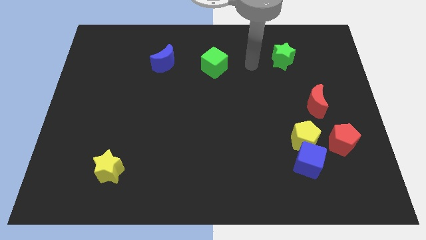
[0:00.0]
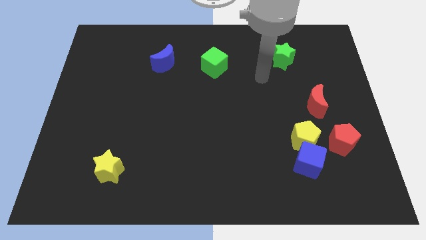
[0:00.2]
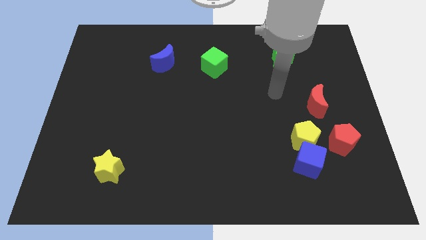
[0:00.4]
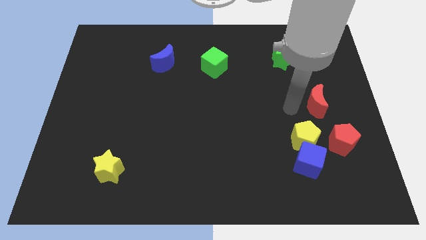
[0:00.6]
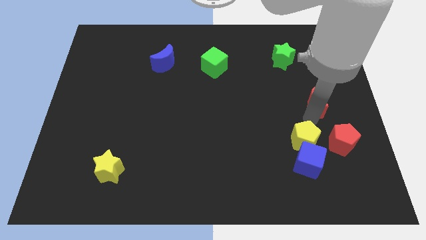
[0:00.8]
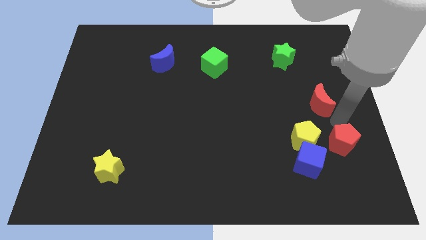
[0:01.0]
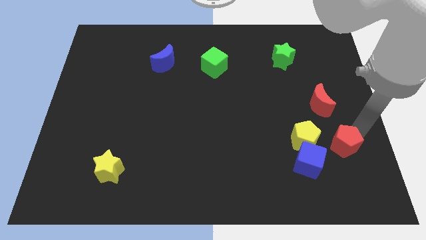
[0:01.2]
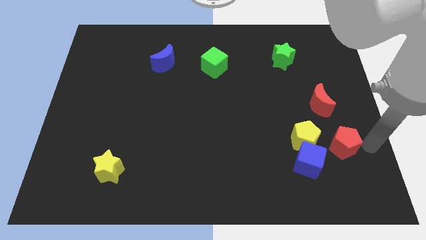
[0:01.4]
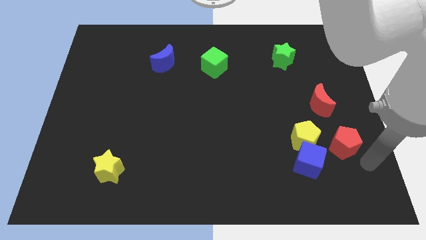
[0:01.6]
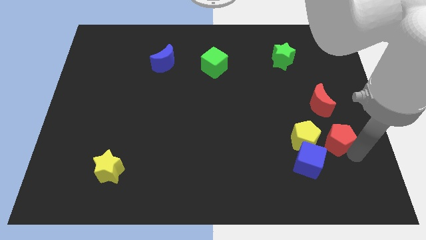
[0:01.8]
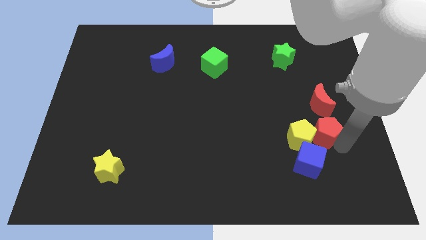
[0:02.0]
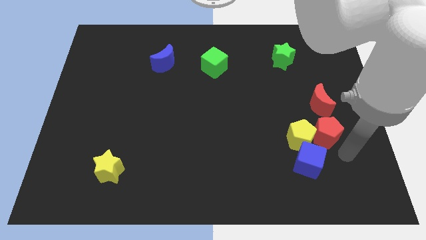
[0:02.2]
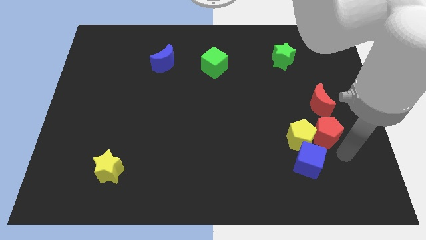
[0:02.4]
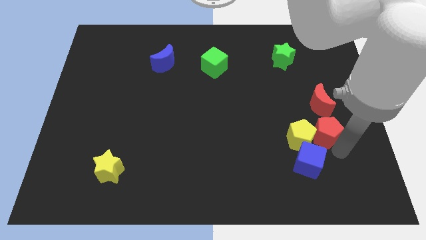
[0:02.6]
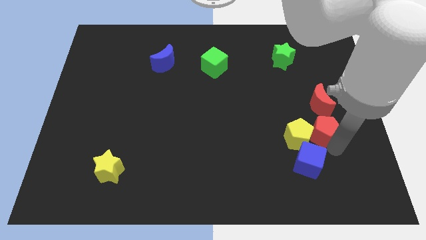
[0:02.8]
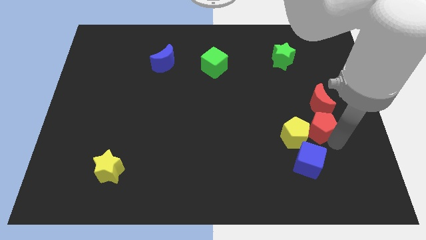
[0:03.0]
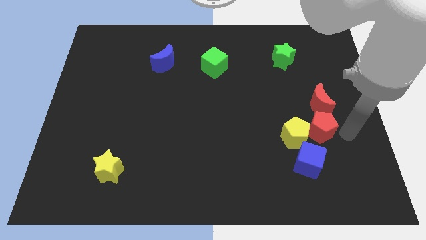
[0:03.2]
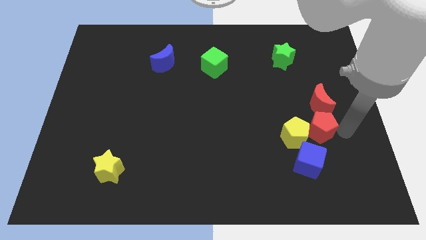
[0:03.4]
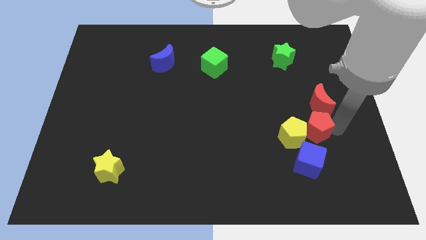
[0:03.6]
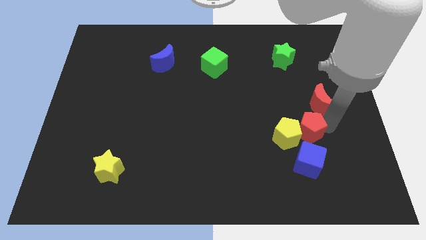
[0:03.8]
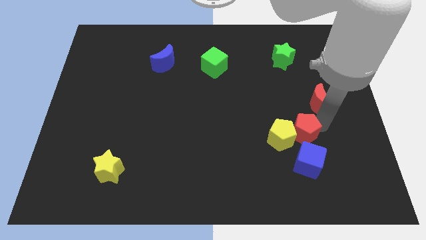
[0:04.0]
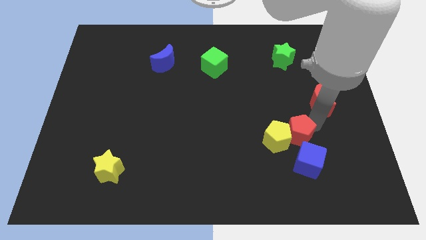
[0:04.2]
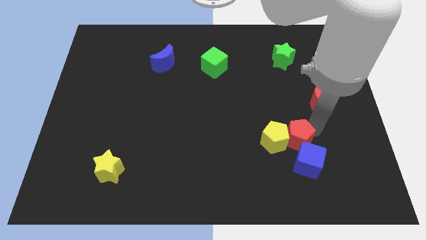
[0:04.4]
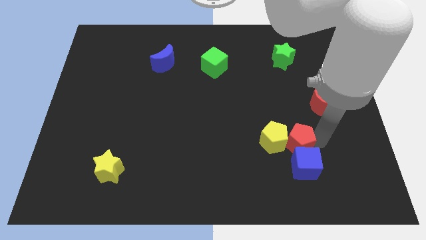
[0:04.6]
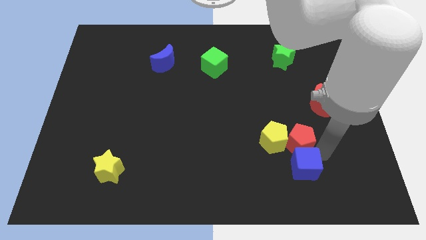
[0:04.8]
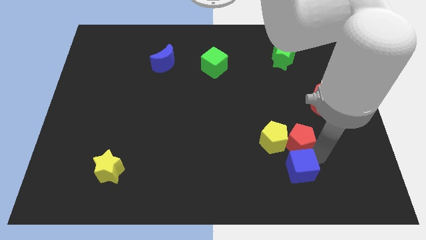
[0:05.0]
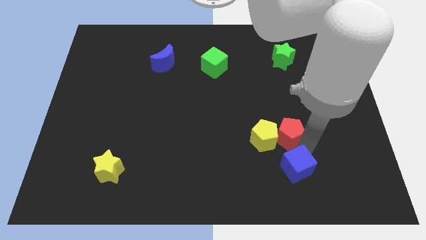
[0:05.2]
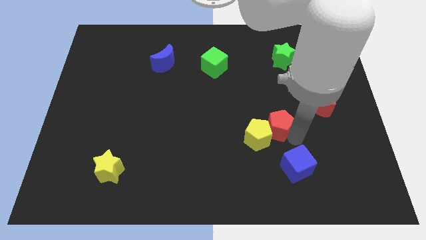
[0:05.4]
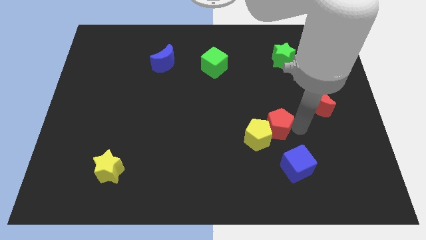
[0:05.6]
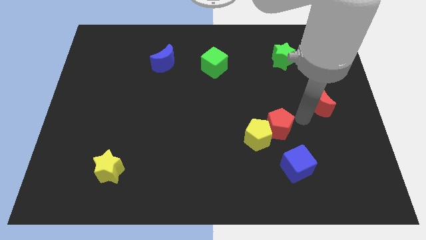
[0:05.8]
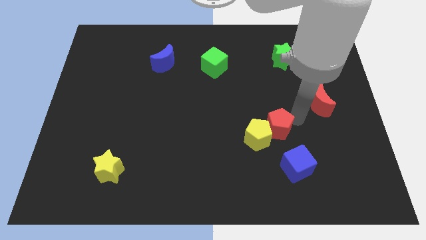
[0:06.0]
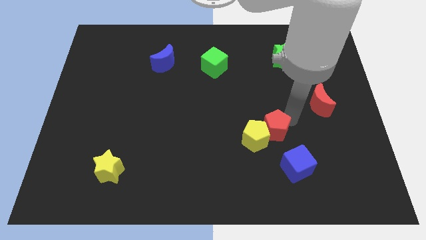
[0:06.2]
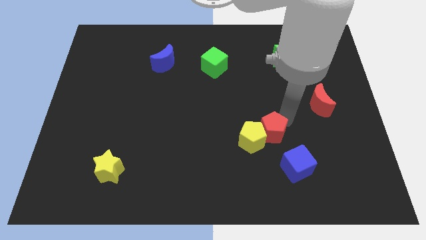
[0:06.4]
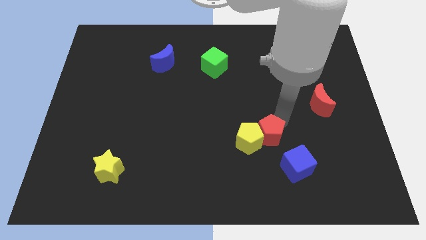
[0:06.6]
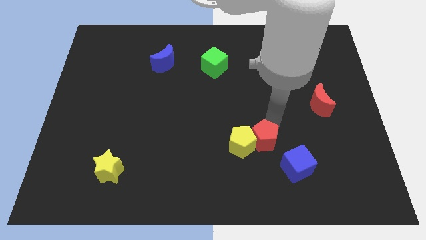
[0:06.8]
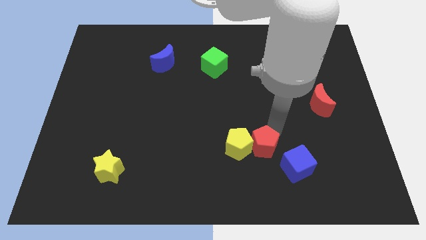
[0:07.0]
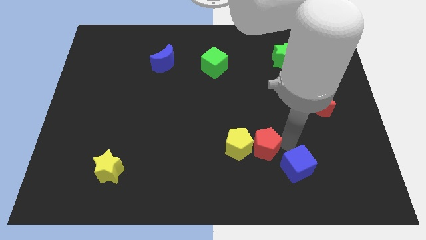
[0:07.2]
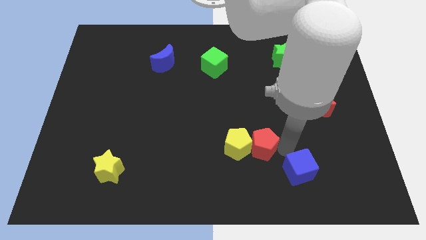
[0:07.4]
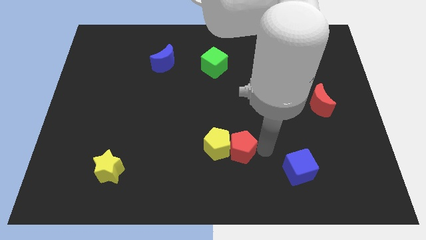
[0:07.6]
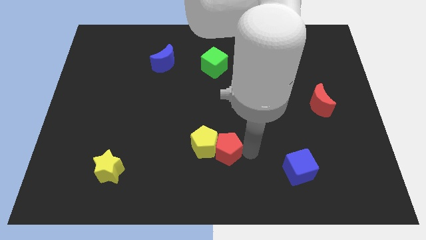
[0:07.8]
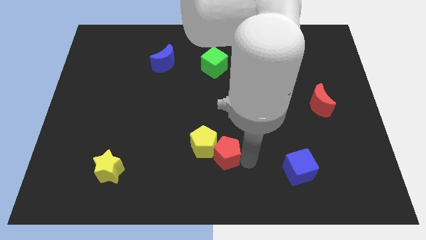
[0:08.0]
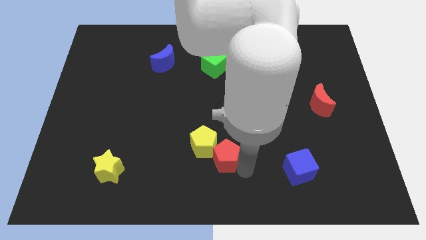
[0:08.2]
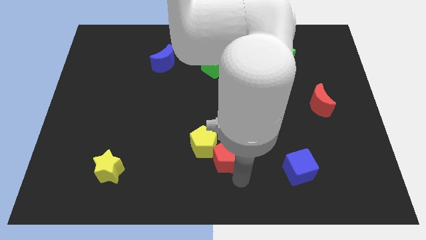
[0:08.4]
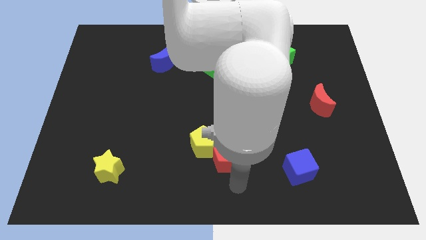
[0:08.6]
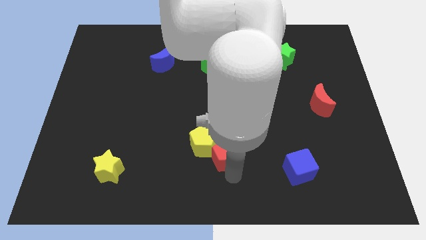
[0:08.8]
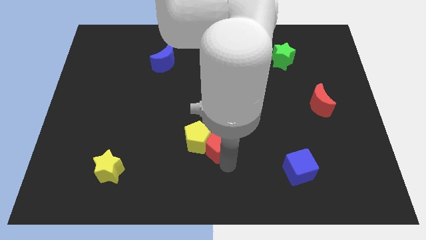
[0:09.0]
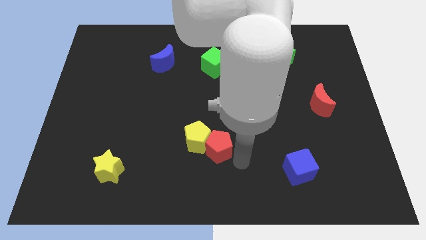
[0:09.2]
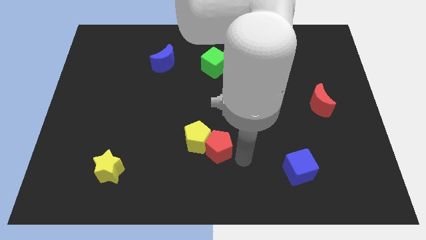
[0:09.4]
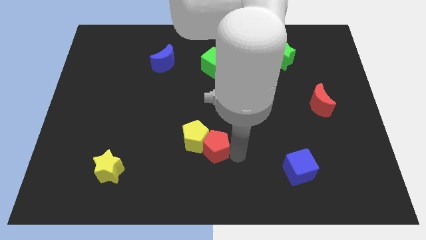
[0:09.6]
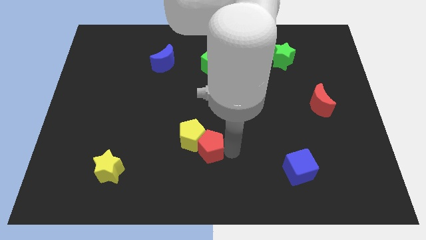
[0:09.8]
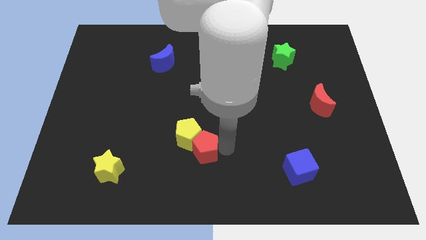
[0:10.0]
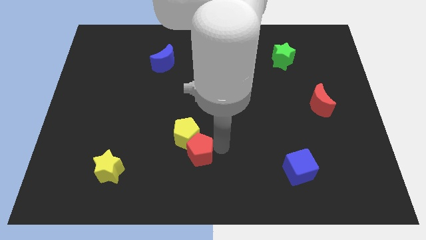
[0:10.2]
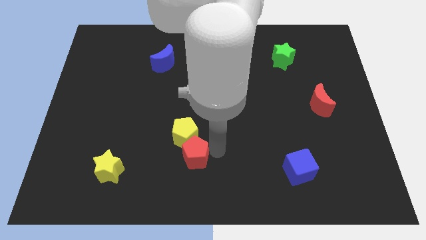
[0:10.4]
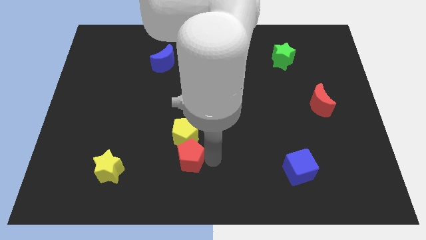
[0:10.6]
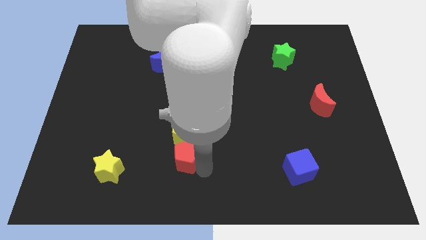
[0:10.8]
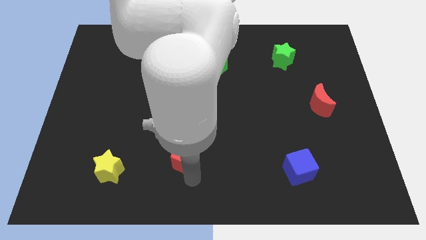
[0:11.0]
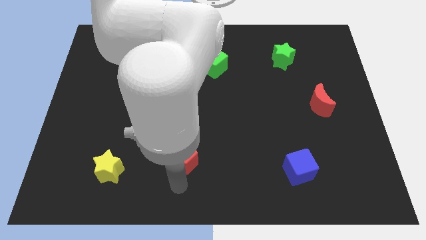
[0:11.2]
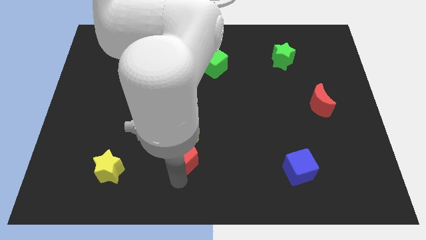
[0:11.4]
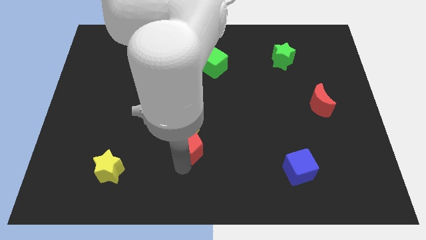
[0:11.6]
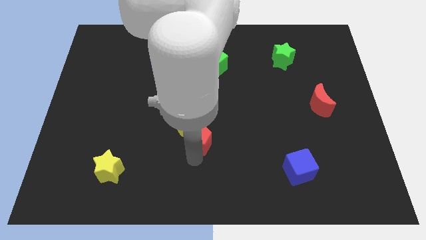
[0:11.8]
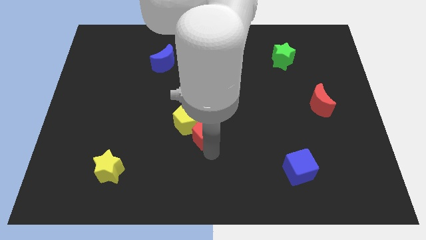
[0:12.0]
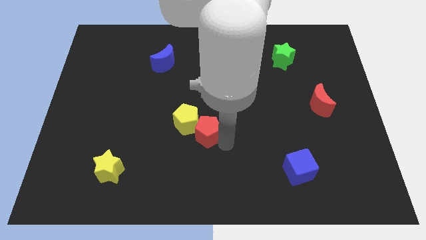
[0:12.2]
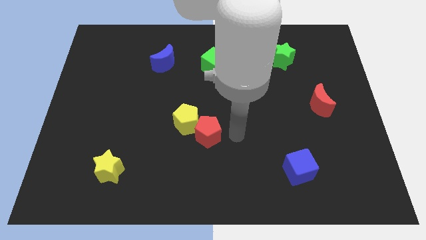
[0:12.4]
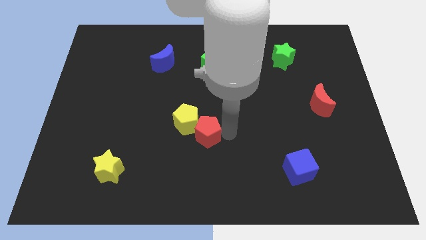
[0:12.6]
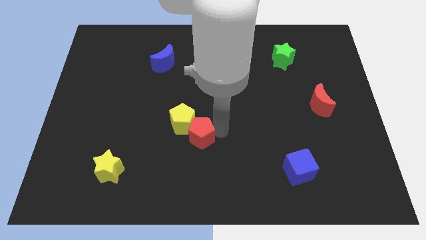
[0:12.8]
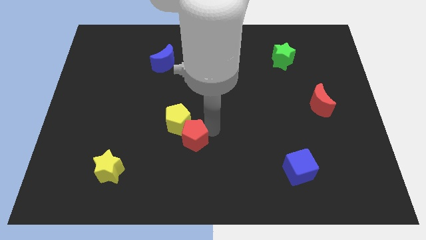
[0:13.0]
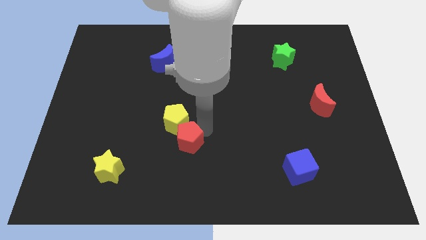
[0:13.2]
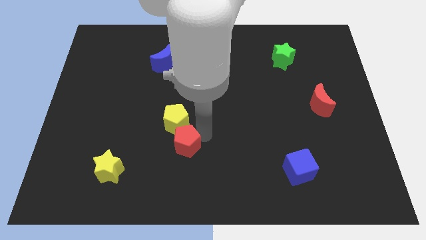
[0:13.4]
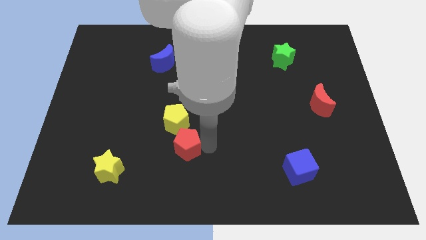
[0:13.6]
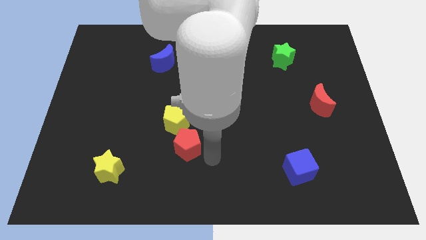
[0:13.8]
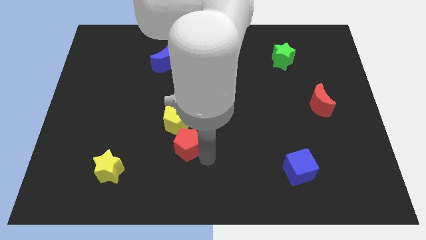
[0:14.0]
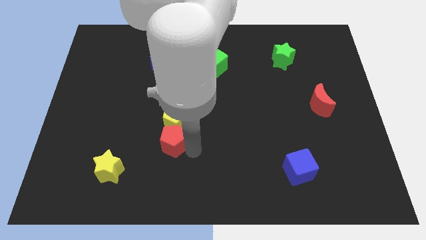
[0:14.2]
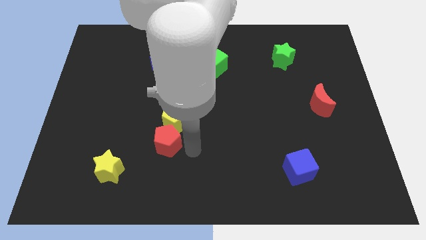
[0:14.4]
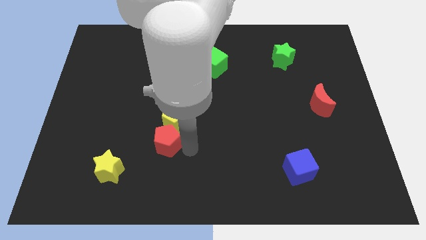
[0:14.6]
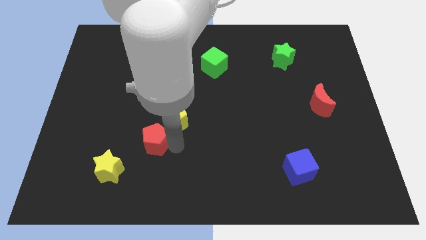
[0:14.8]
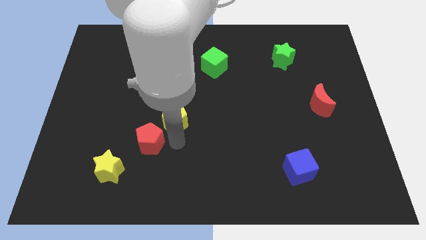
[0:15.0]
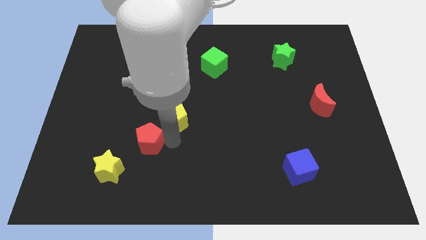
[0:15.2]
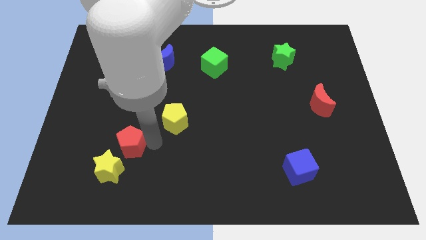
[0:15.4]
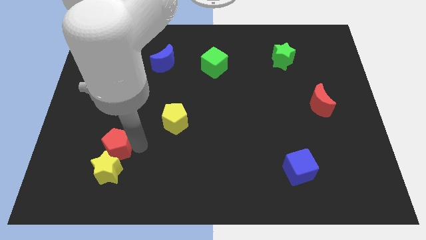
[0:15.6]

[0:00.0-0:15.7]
put the red pentagon diagonally up and to the left of the yellow star

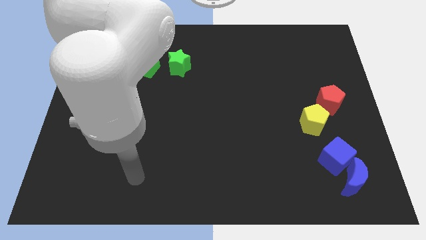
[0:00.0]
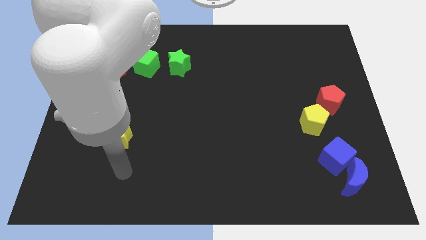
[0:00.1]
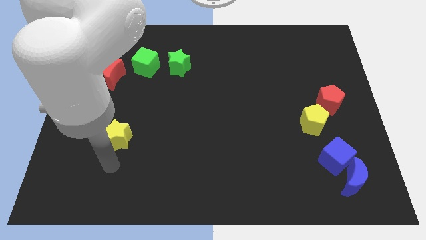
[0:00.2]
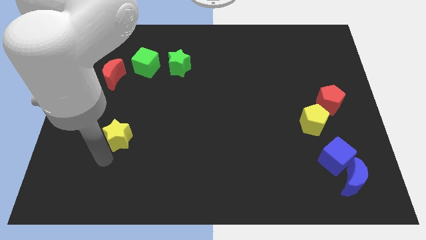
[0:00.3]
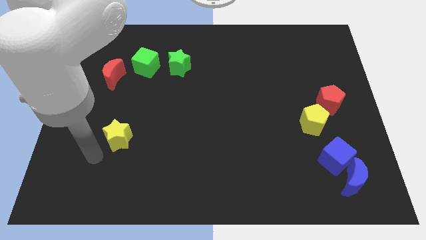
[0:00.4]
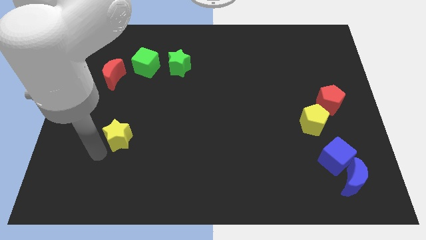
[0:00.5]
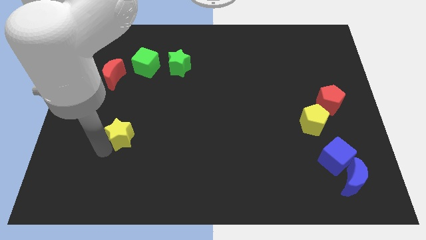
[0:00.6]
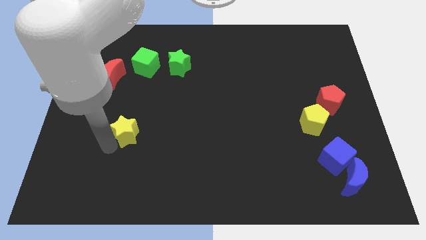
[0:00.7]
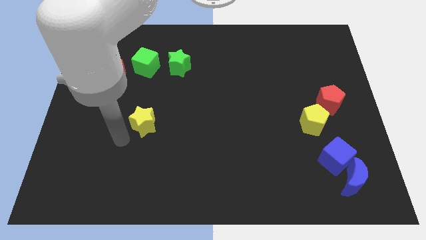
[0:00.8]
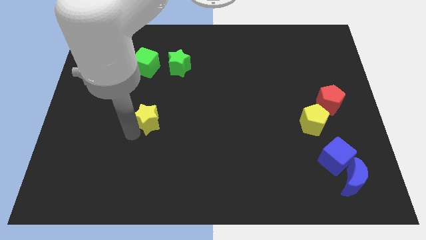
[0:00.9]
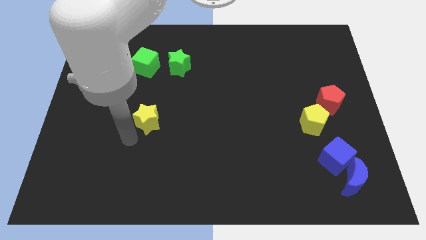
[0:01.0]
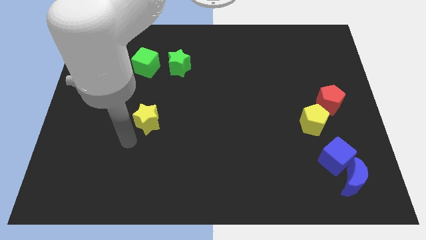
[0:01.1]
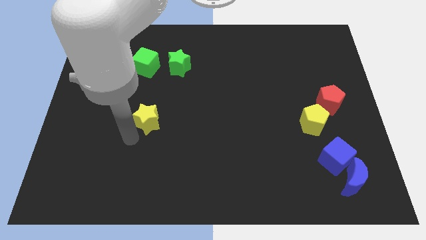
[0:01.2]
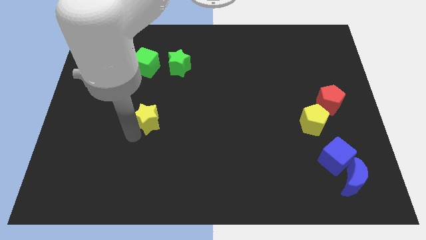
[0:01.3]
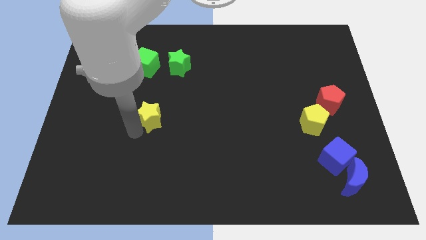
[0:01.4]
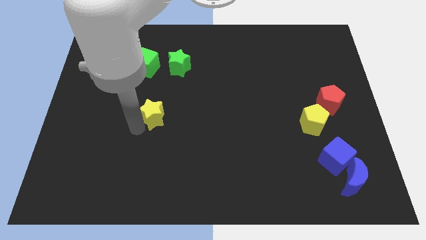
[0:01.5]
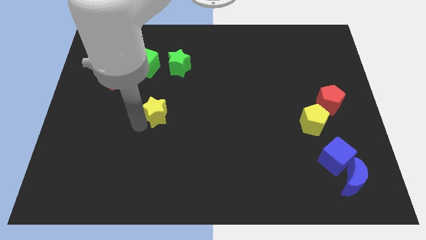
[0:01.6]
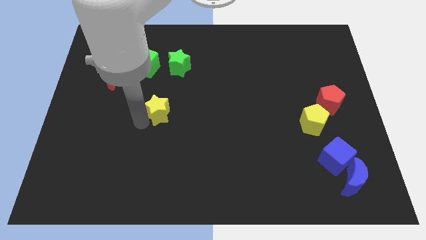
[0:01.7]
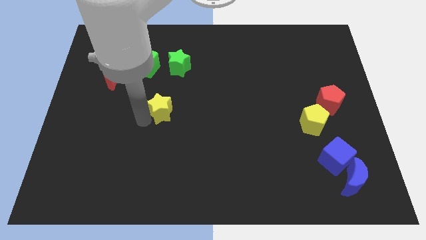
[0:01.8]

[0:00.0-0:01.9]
slide the yellow star to the bottom of the green star
